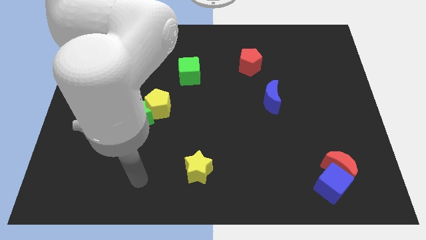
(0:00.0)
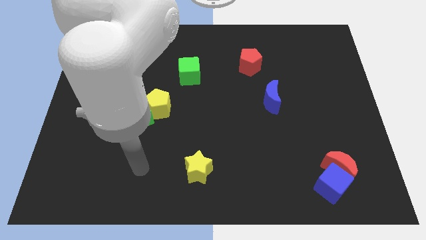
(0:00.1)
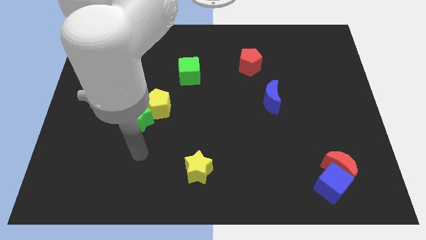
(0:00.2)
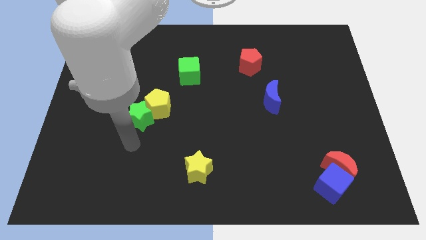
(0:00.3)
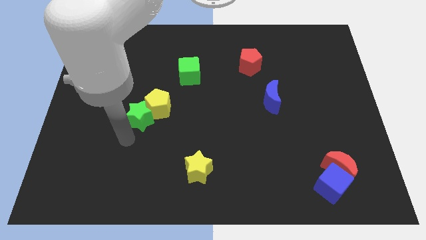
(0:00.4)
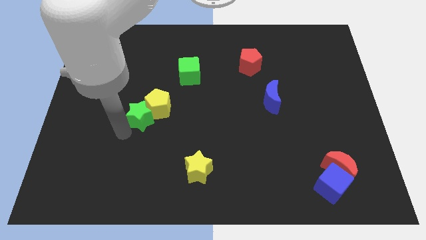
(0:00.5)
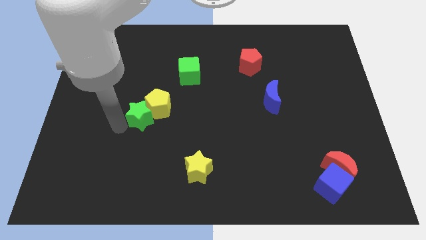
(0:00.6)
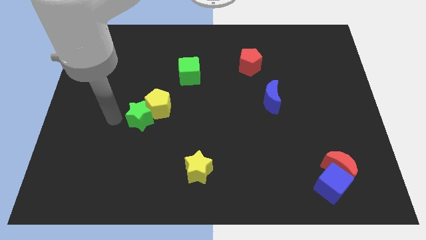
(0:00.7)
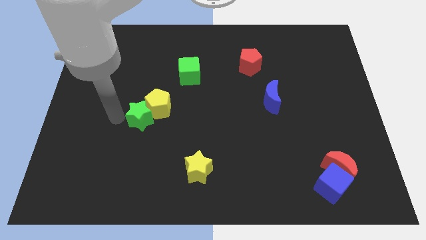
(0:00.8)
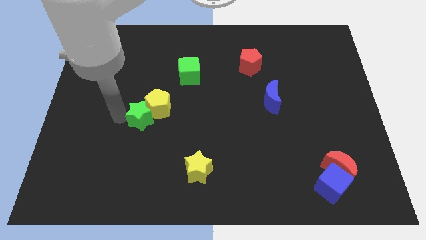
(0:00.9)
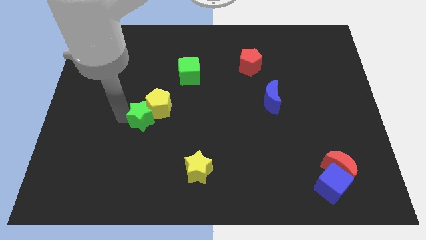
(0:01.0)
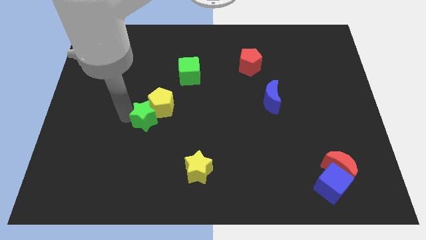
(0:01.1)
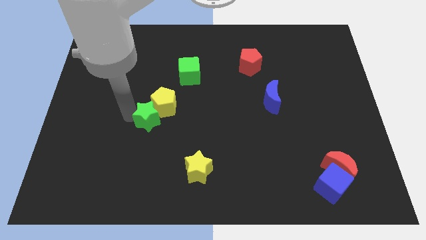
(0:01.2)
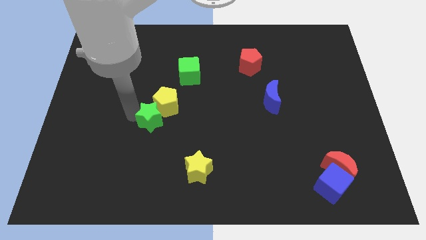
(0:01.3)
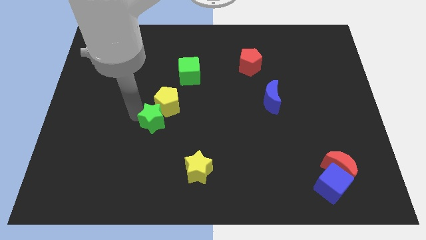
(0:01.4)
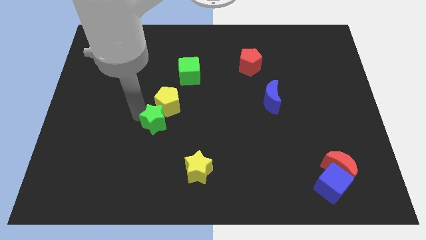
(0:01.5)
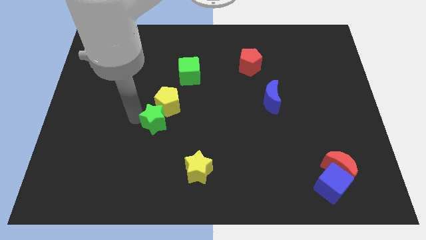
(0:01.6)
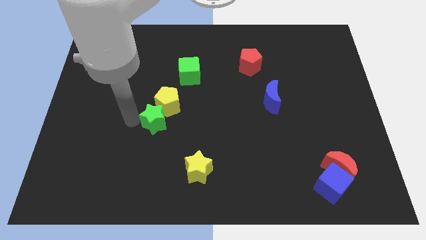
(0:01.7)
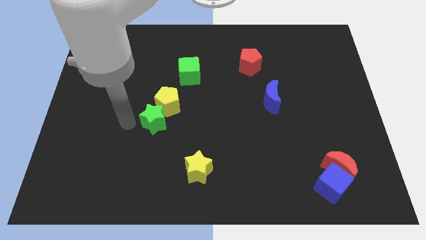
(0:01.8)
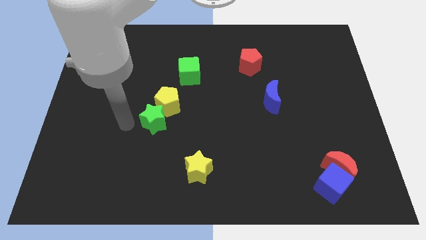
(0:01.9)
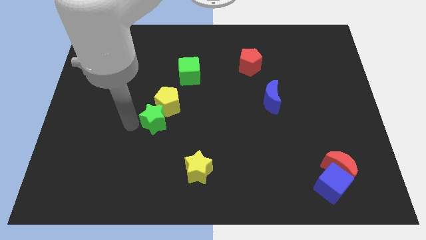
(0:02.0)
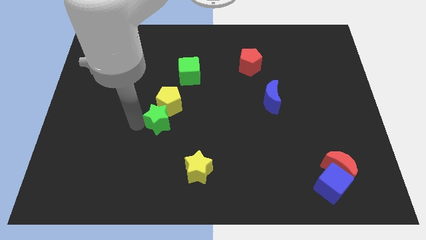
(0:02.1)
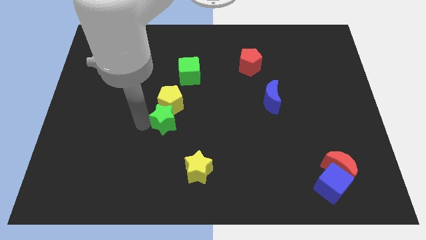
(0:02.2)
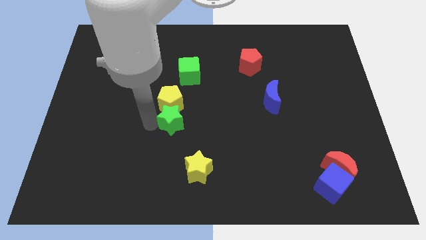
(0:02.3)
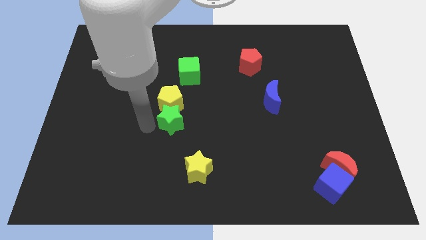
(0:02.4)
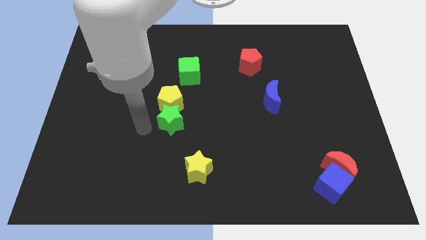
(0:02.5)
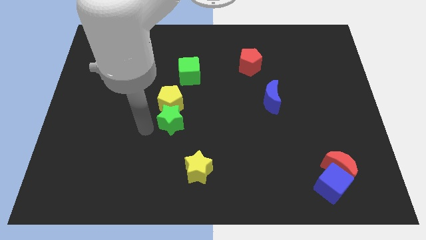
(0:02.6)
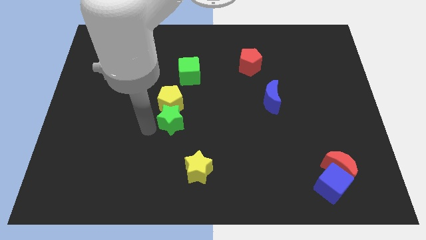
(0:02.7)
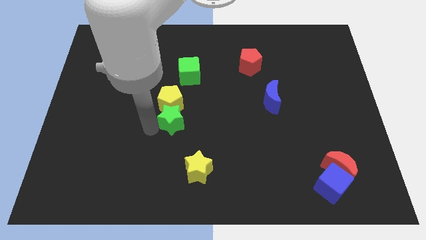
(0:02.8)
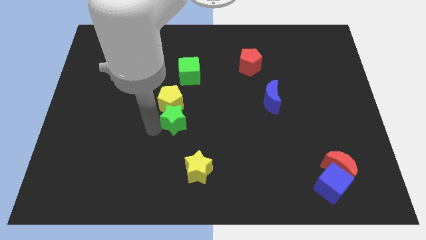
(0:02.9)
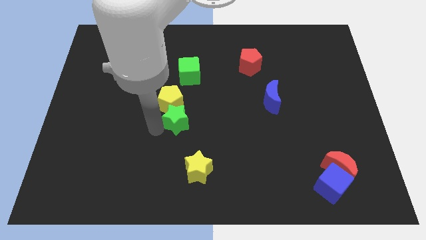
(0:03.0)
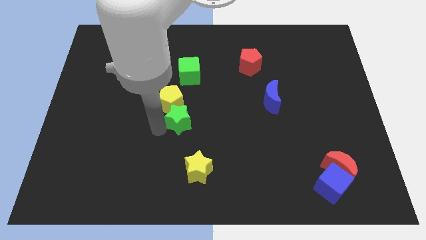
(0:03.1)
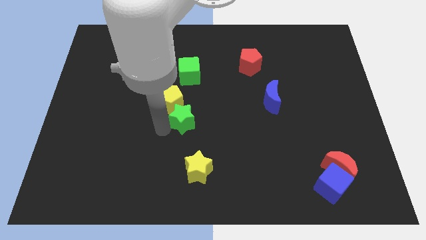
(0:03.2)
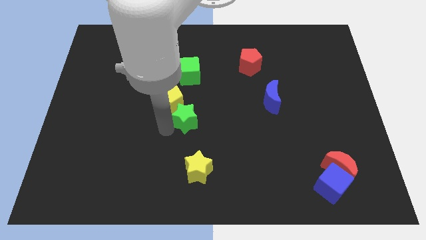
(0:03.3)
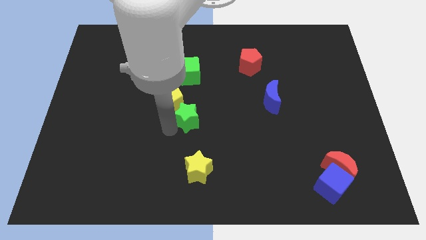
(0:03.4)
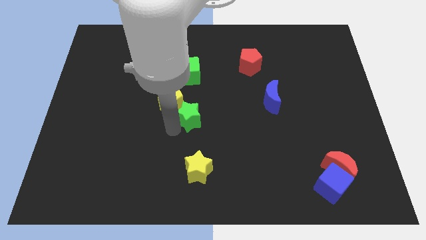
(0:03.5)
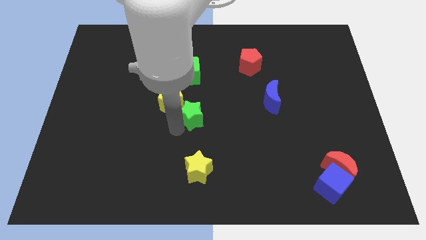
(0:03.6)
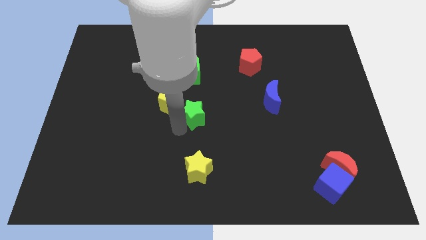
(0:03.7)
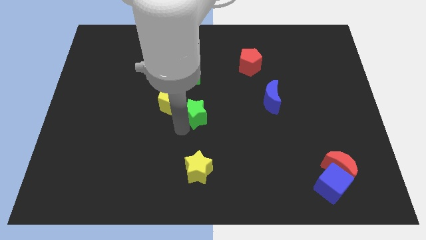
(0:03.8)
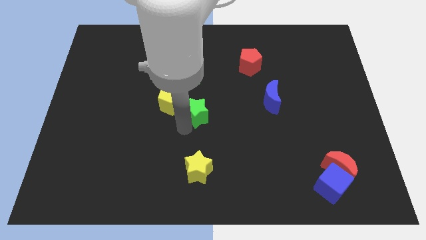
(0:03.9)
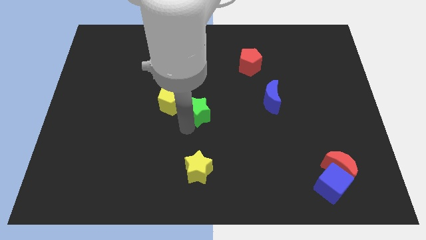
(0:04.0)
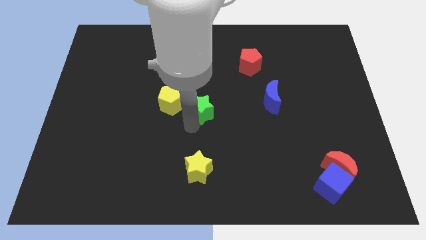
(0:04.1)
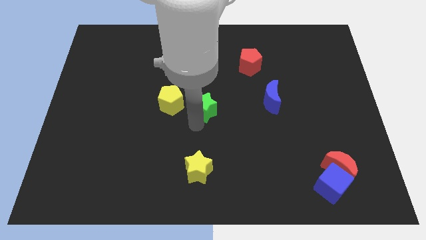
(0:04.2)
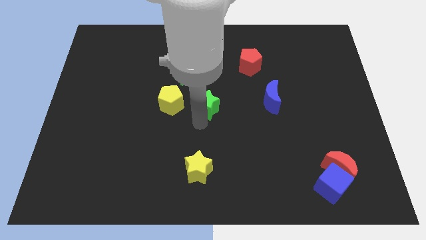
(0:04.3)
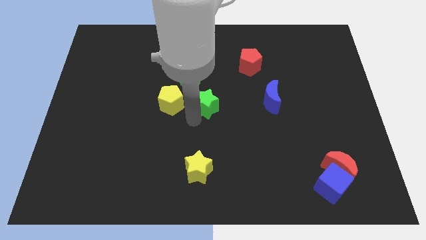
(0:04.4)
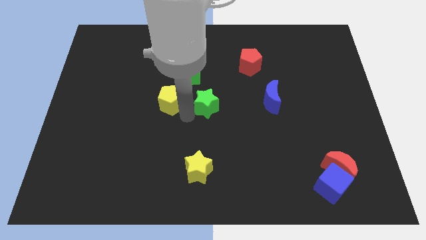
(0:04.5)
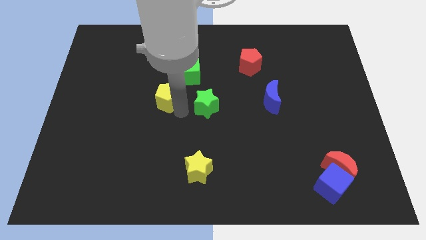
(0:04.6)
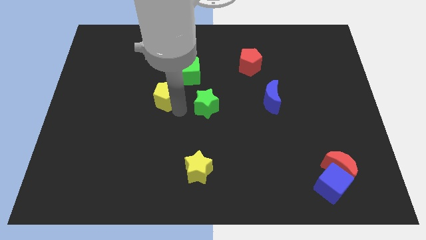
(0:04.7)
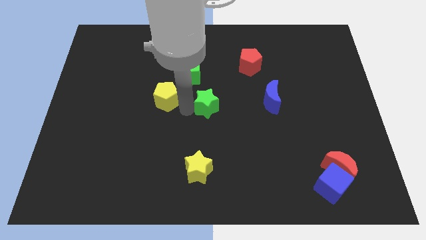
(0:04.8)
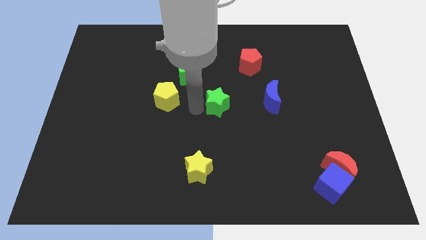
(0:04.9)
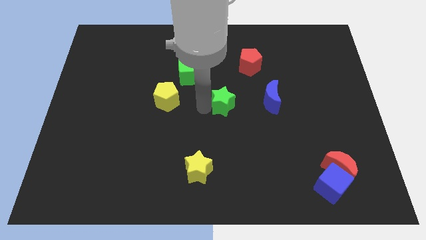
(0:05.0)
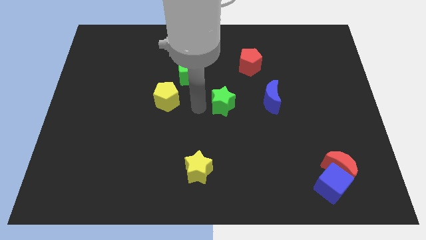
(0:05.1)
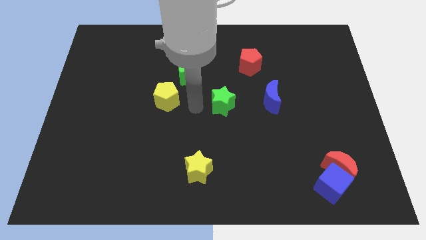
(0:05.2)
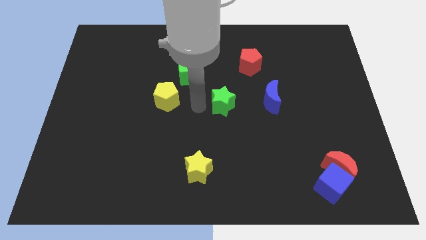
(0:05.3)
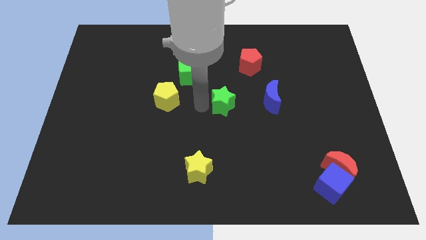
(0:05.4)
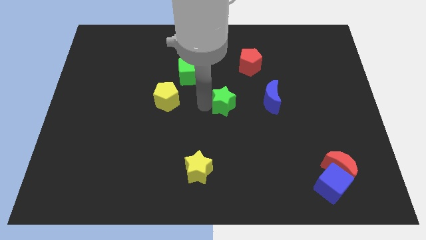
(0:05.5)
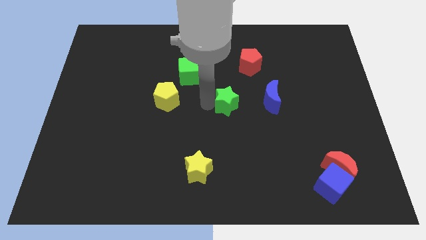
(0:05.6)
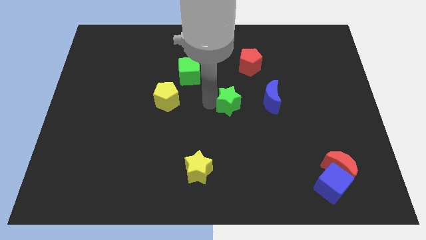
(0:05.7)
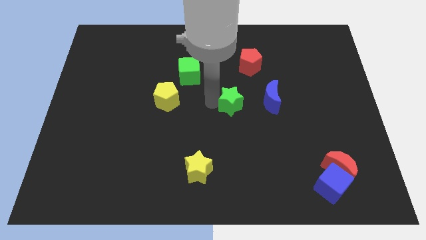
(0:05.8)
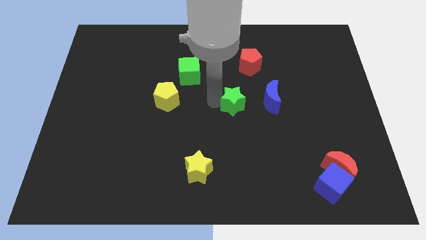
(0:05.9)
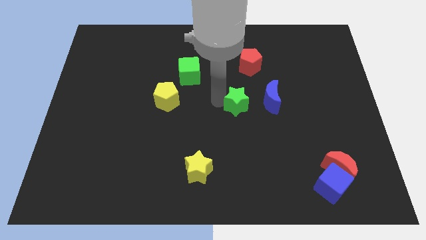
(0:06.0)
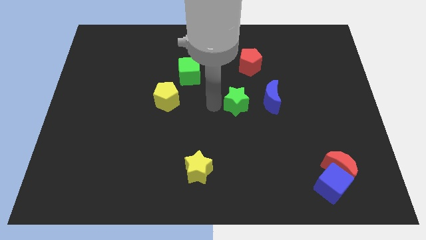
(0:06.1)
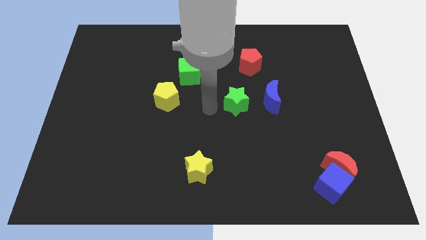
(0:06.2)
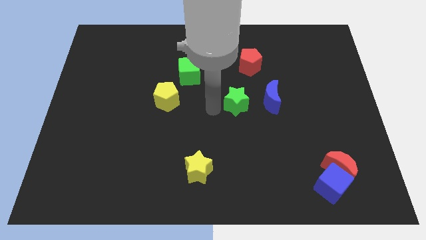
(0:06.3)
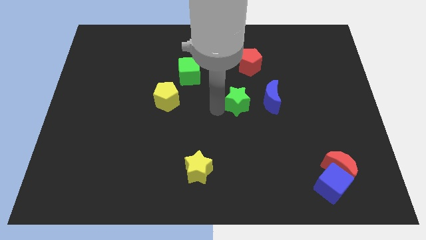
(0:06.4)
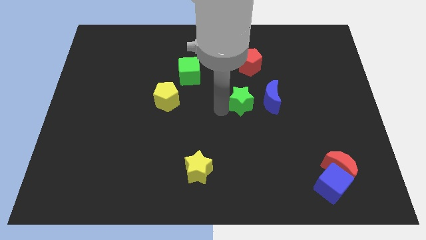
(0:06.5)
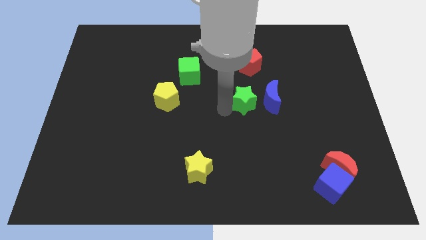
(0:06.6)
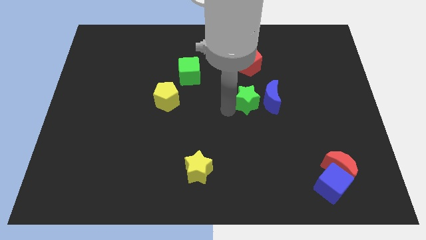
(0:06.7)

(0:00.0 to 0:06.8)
put the green star towards the blue moon
